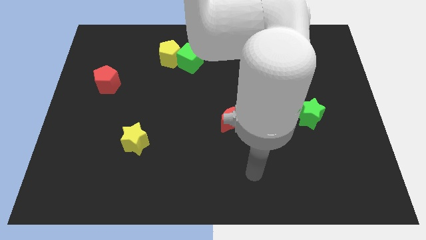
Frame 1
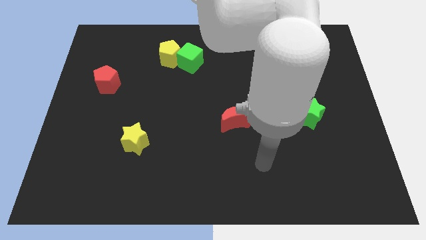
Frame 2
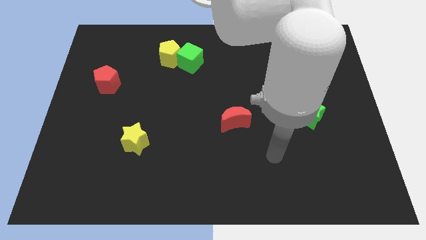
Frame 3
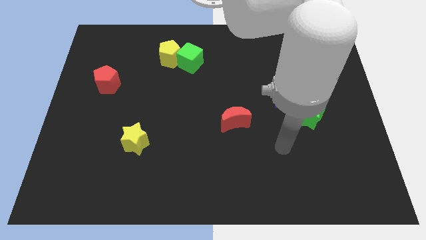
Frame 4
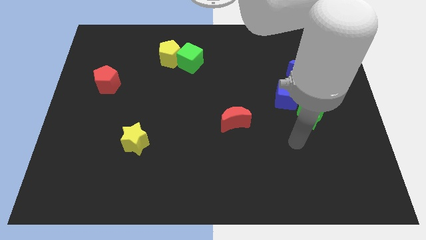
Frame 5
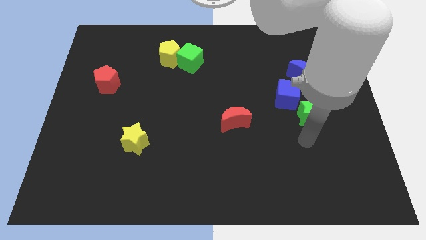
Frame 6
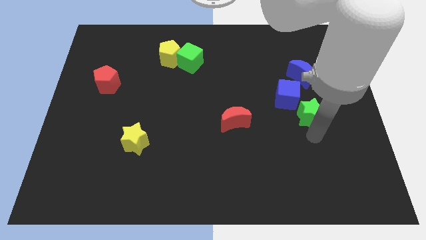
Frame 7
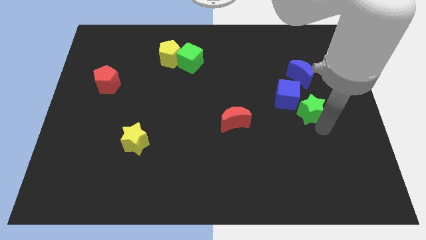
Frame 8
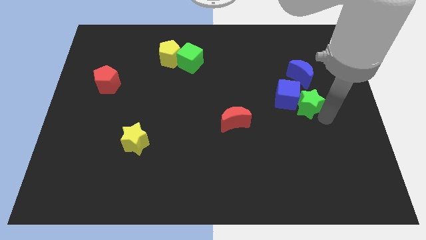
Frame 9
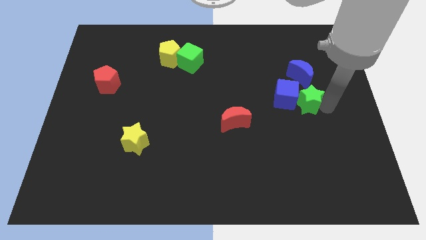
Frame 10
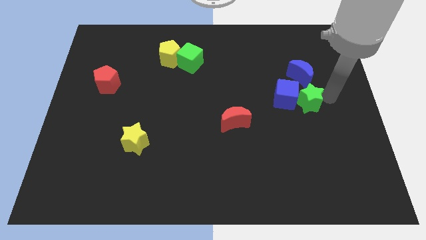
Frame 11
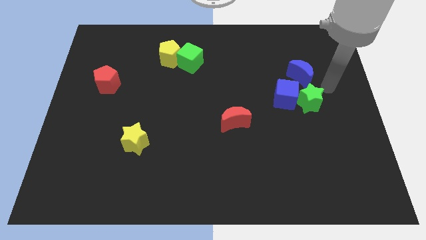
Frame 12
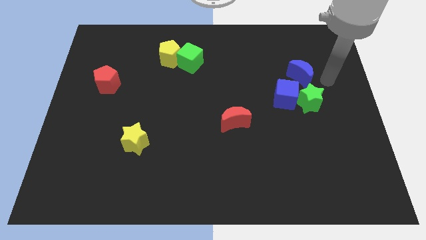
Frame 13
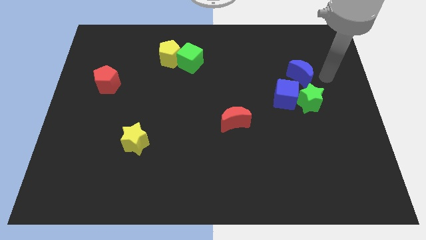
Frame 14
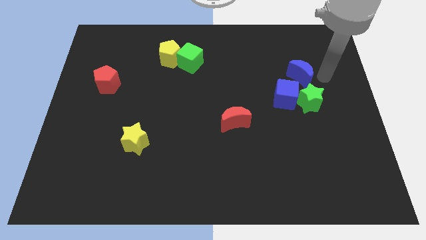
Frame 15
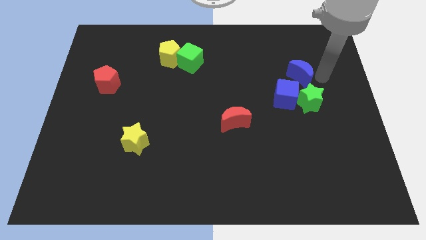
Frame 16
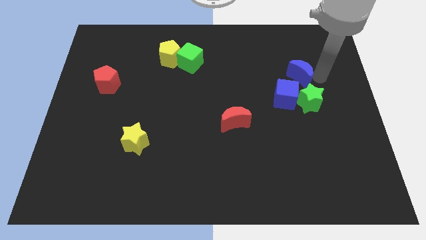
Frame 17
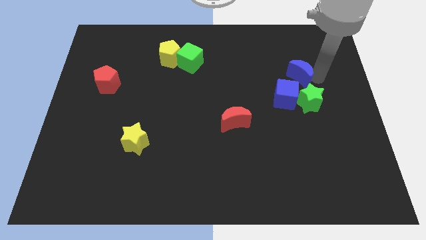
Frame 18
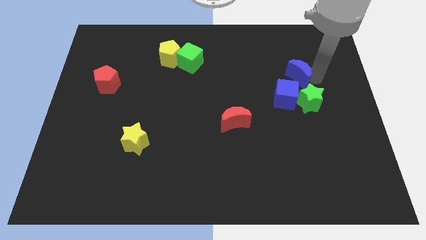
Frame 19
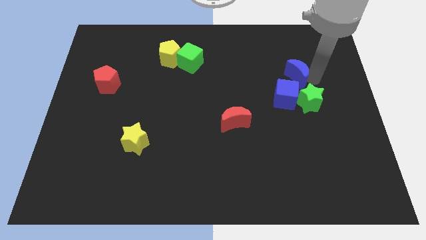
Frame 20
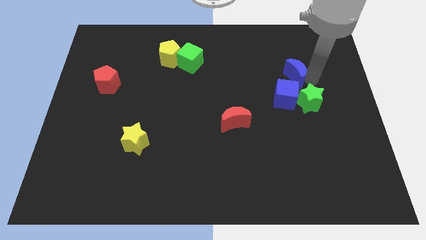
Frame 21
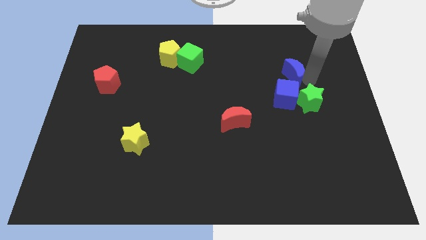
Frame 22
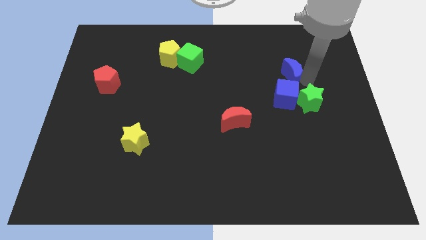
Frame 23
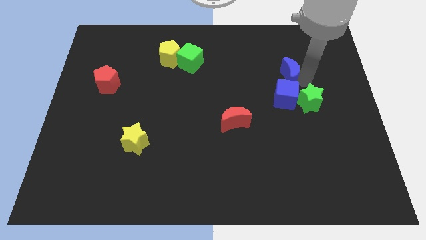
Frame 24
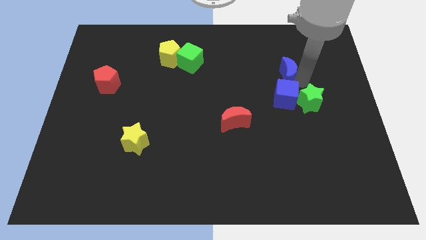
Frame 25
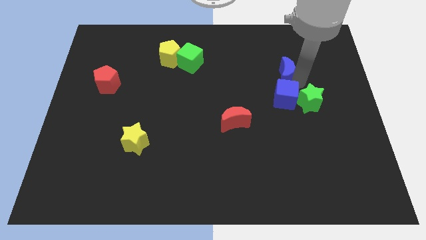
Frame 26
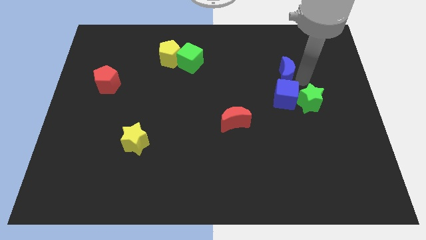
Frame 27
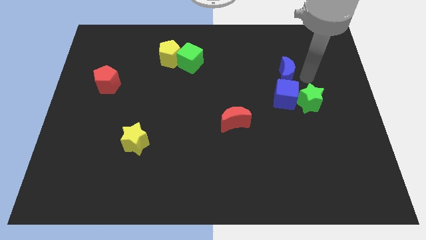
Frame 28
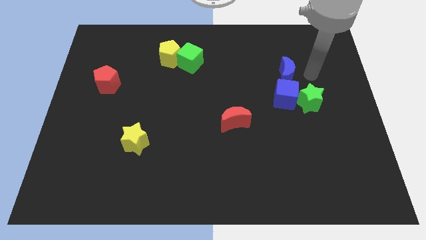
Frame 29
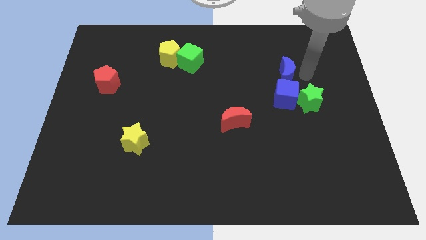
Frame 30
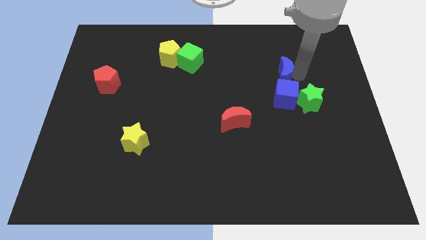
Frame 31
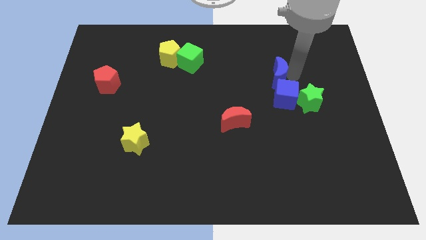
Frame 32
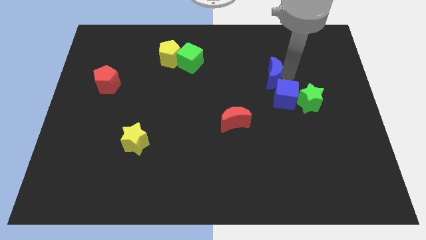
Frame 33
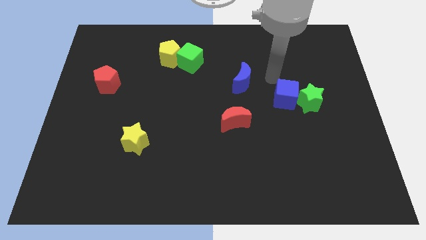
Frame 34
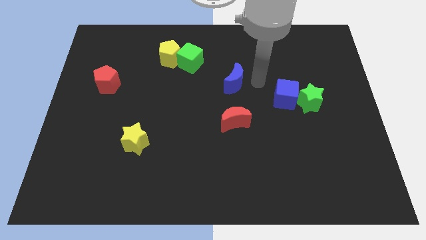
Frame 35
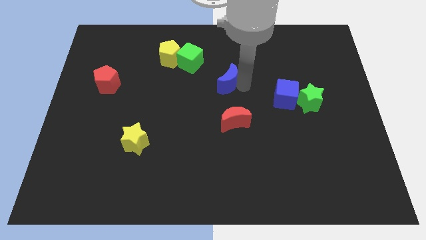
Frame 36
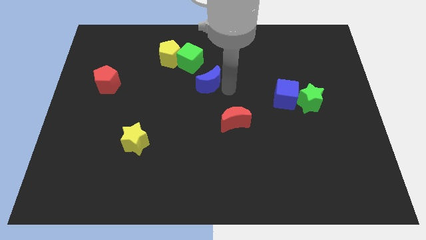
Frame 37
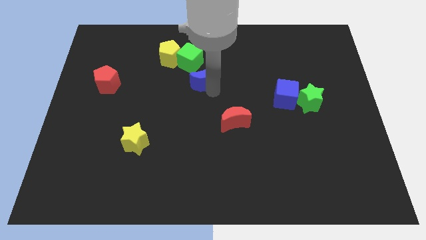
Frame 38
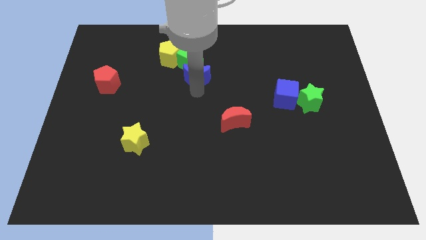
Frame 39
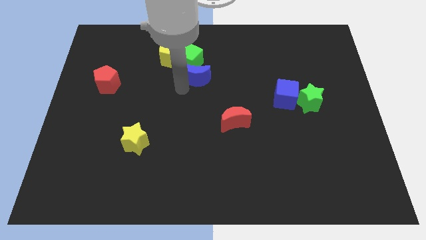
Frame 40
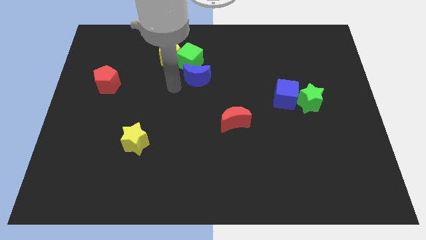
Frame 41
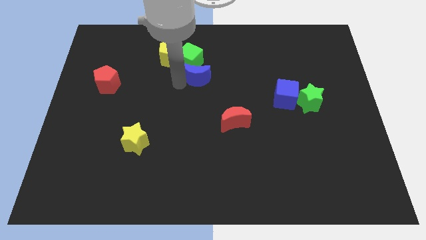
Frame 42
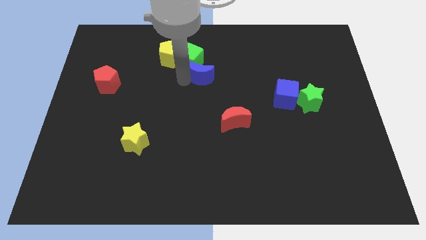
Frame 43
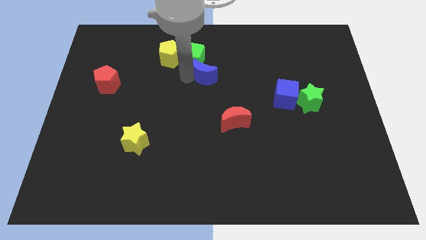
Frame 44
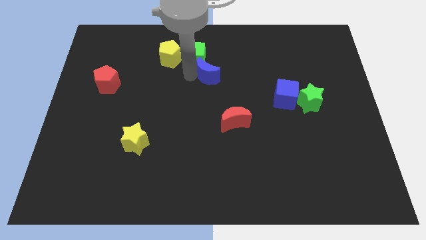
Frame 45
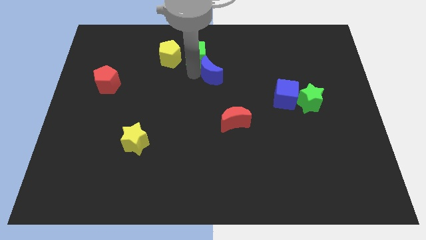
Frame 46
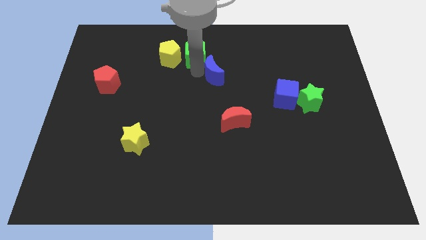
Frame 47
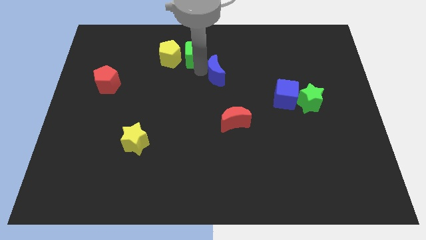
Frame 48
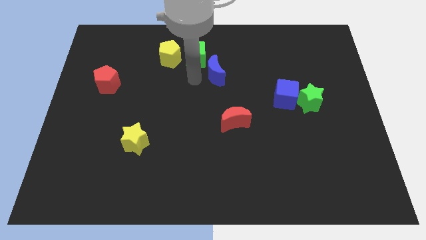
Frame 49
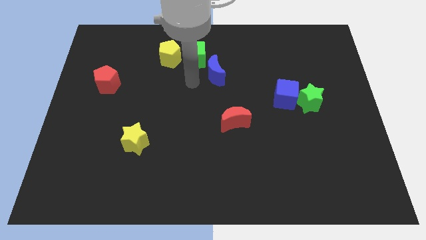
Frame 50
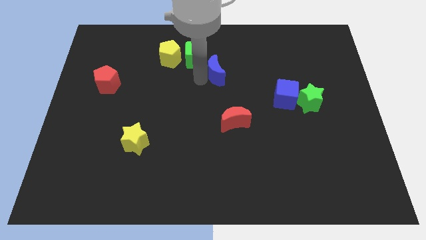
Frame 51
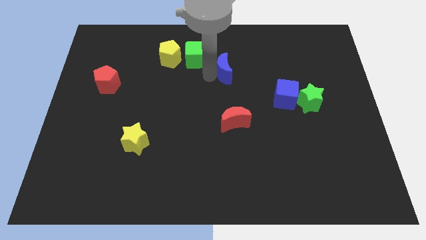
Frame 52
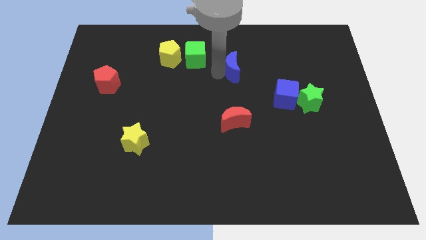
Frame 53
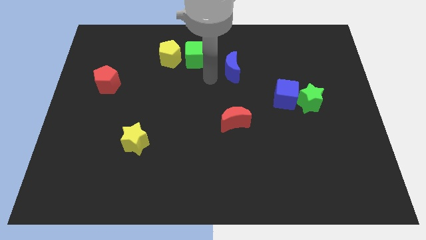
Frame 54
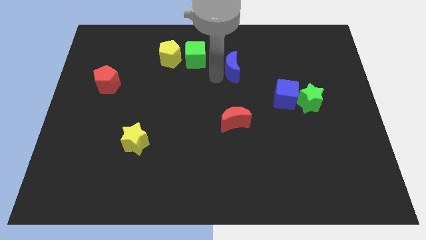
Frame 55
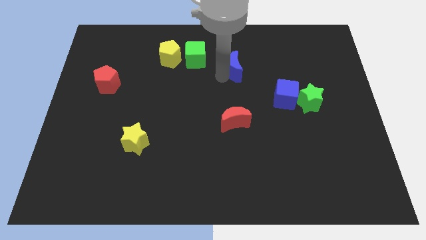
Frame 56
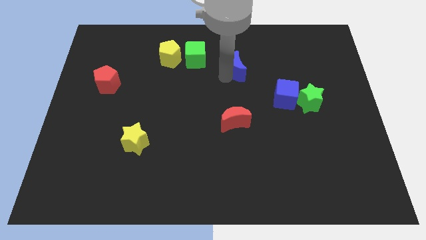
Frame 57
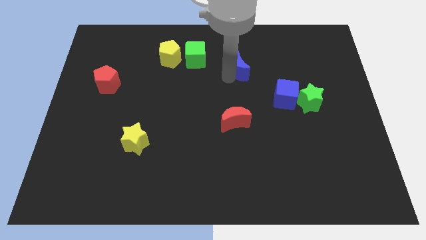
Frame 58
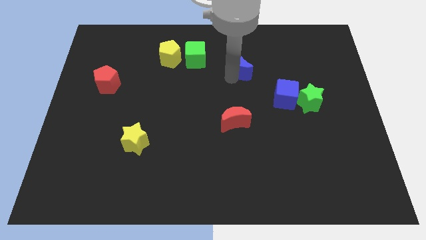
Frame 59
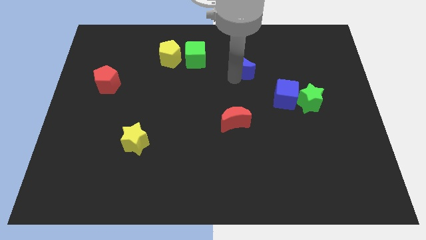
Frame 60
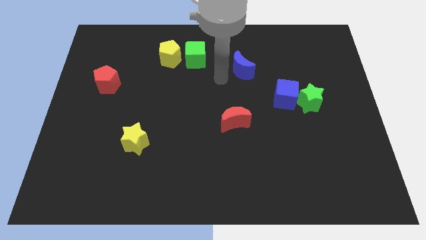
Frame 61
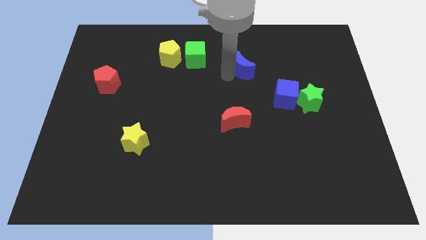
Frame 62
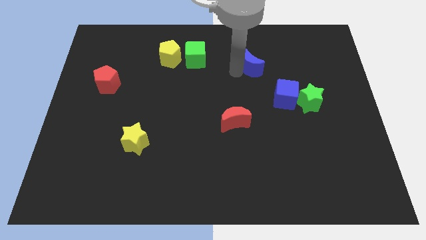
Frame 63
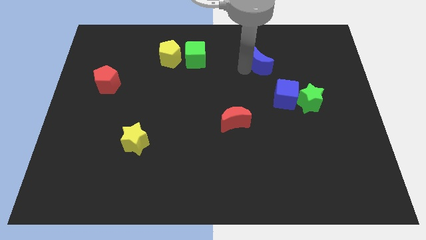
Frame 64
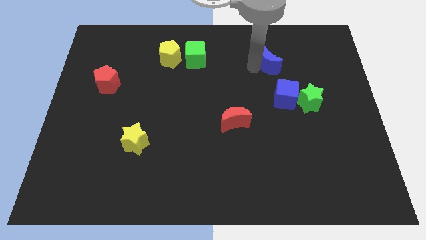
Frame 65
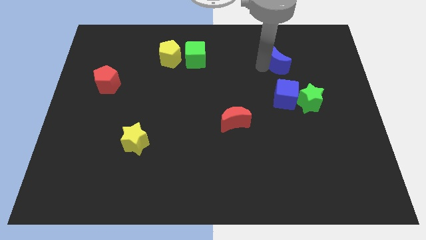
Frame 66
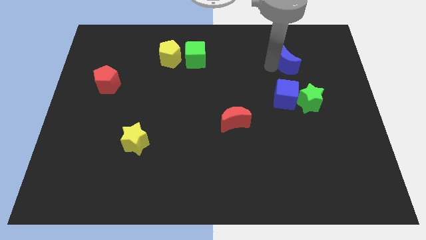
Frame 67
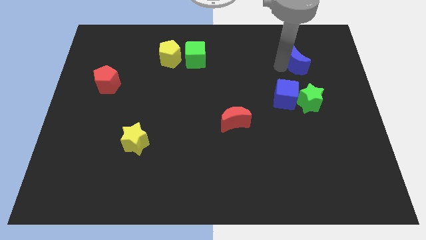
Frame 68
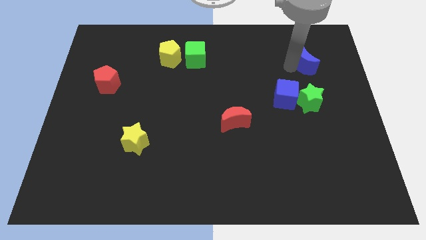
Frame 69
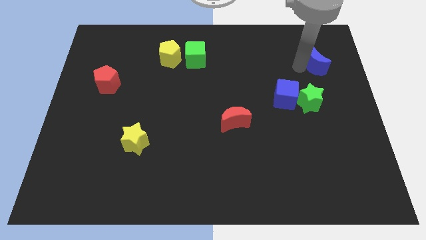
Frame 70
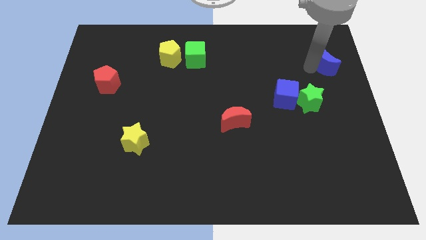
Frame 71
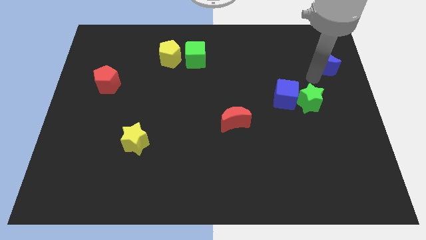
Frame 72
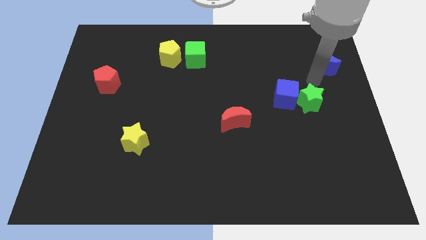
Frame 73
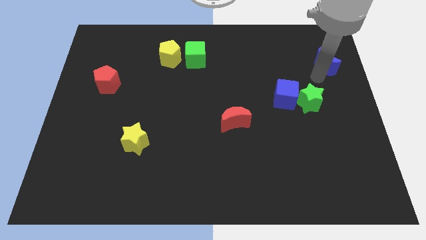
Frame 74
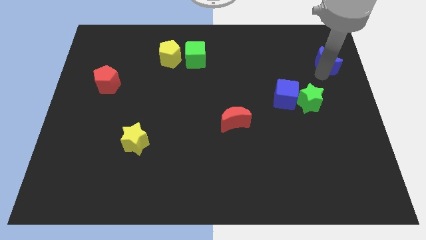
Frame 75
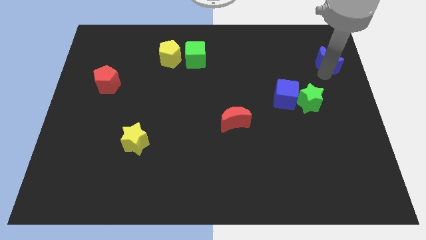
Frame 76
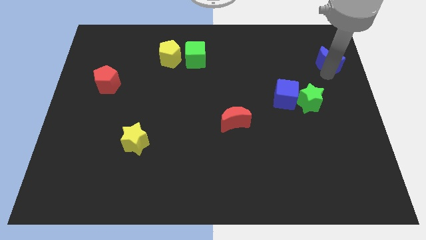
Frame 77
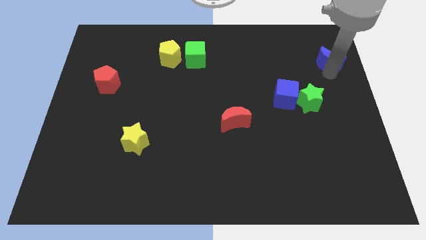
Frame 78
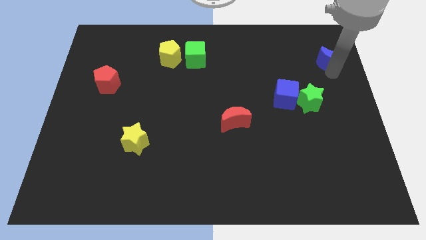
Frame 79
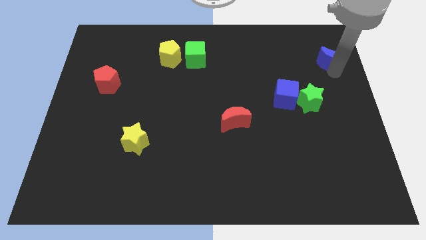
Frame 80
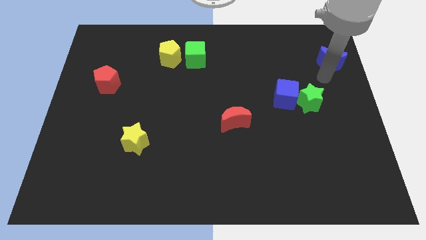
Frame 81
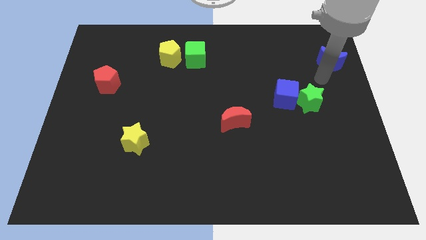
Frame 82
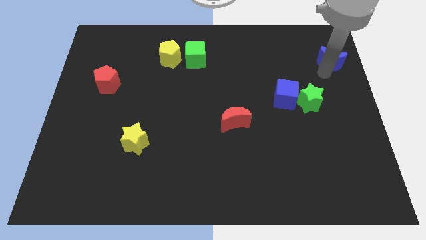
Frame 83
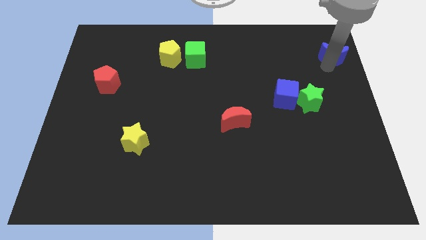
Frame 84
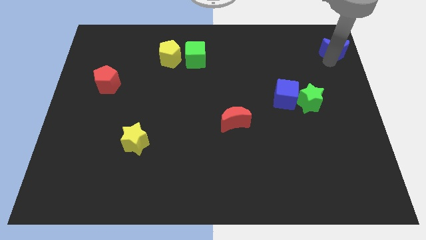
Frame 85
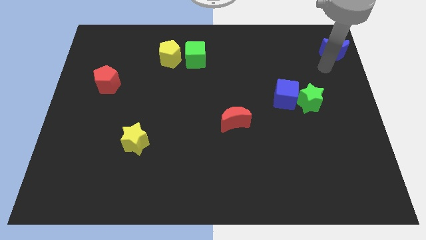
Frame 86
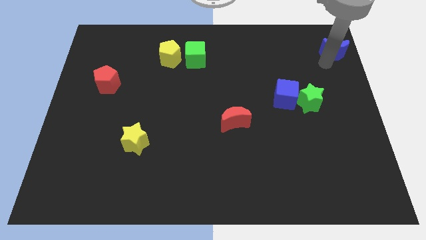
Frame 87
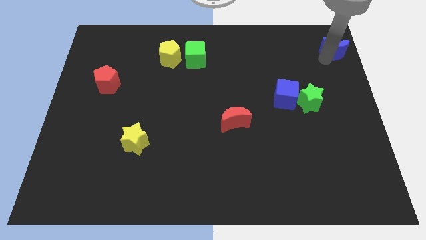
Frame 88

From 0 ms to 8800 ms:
slide the blue moon to the top right of the board
